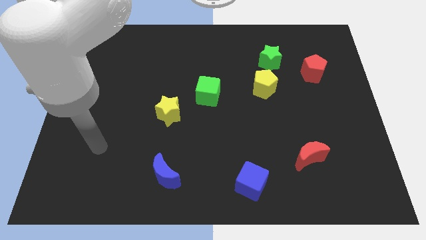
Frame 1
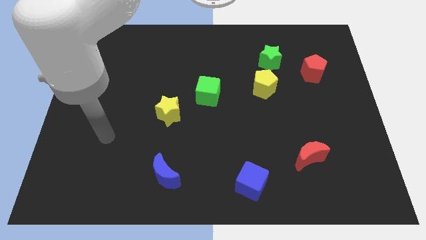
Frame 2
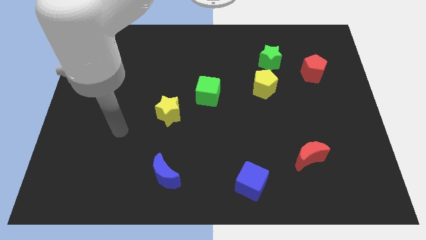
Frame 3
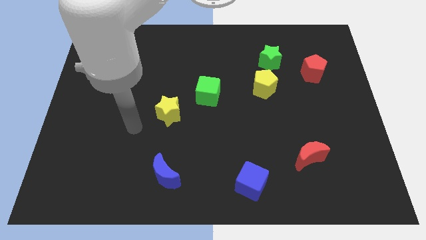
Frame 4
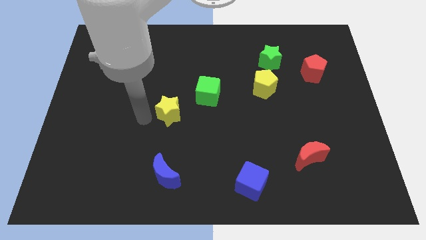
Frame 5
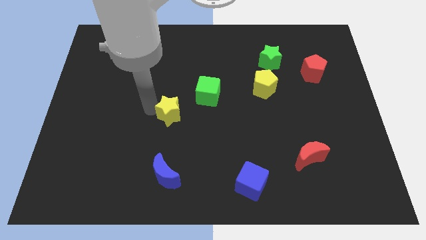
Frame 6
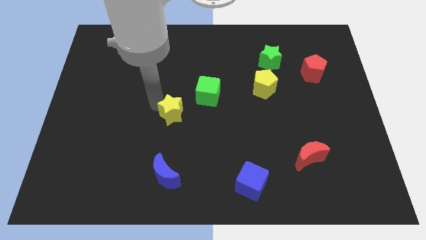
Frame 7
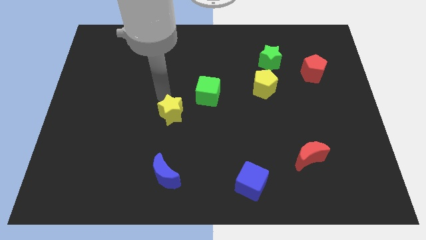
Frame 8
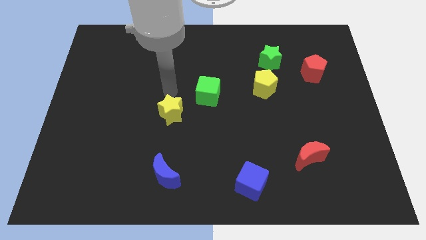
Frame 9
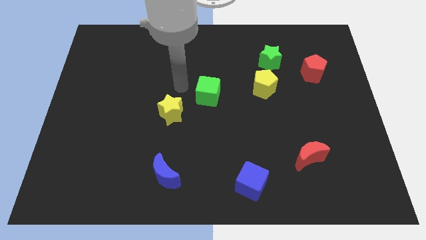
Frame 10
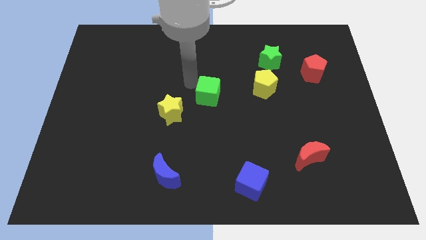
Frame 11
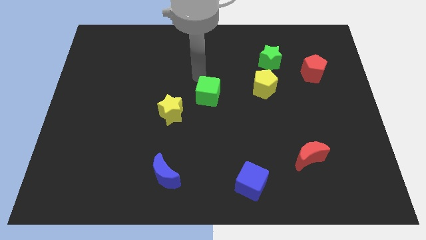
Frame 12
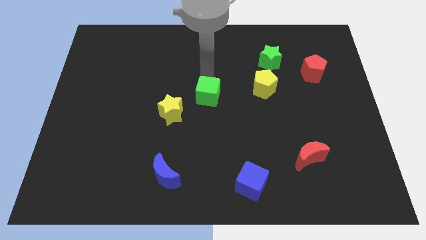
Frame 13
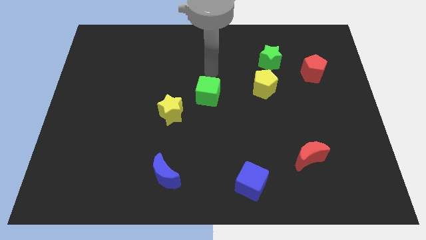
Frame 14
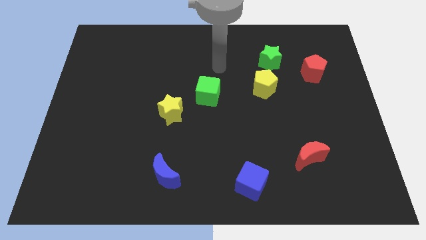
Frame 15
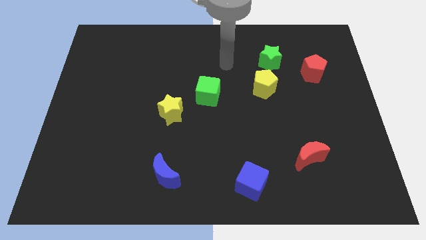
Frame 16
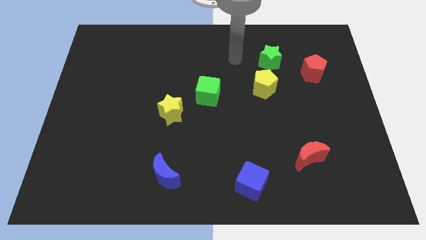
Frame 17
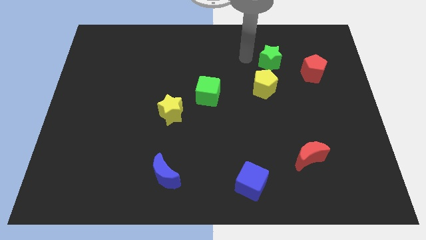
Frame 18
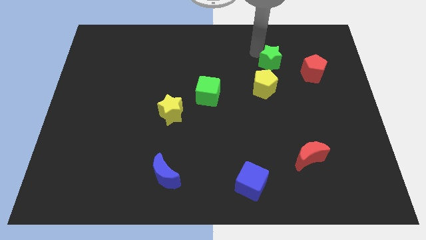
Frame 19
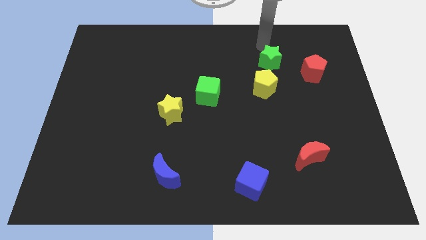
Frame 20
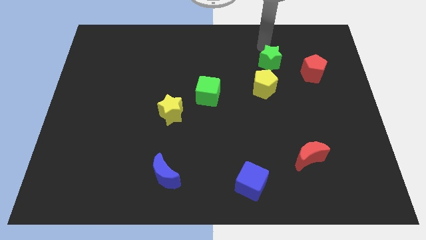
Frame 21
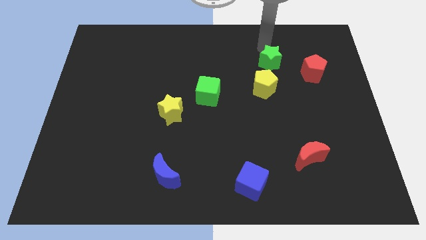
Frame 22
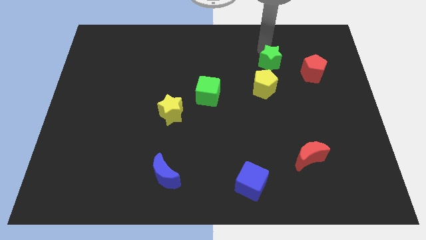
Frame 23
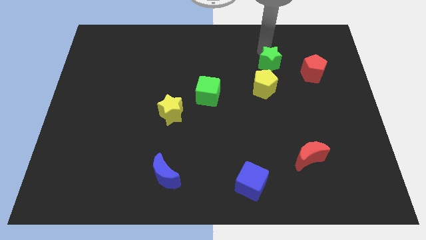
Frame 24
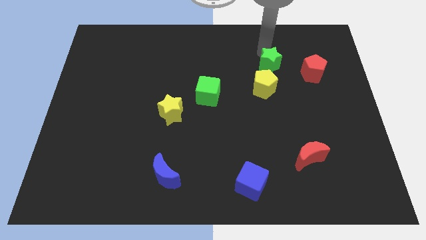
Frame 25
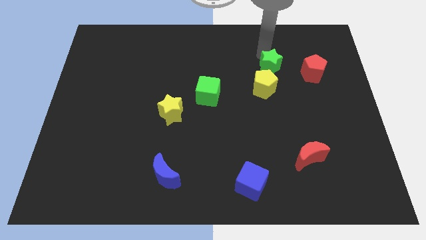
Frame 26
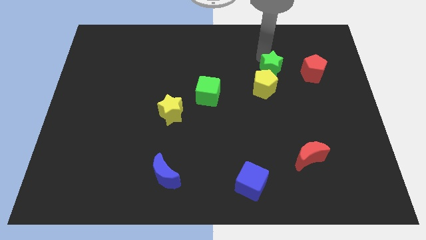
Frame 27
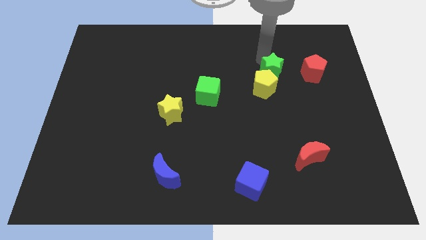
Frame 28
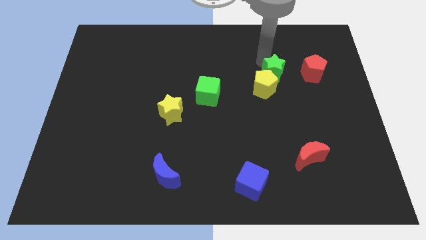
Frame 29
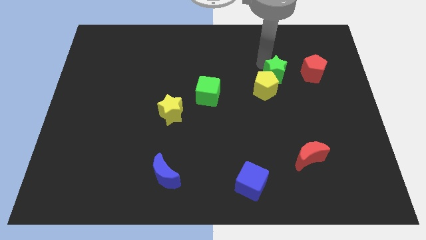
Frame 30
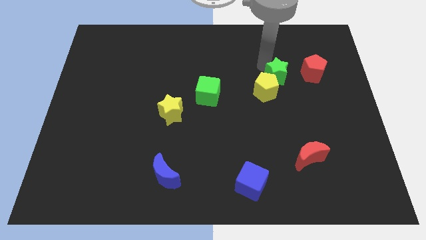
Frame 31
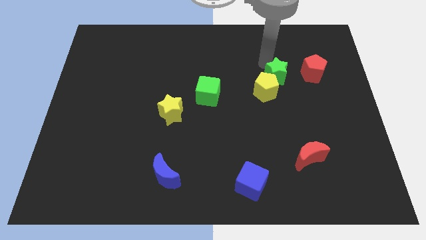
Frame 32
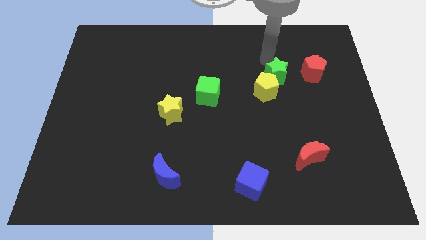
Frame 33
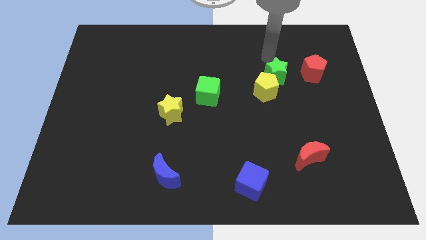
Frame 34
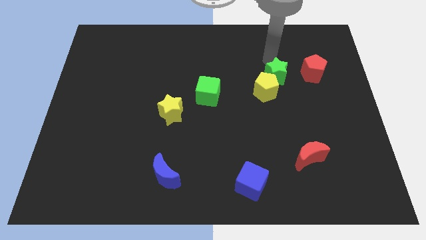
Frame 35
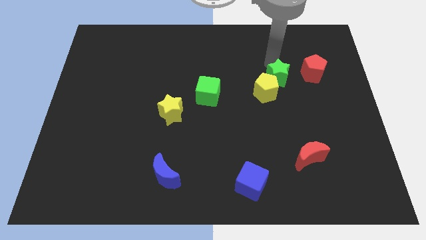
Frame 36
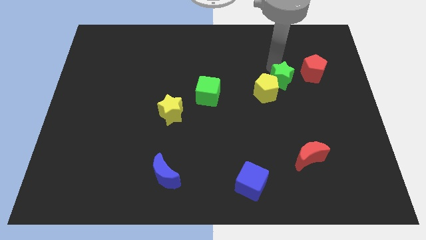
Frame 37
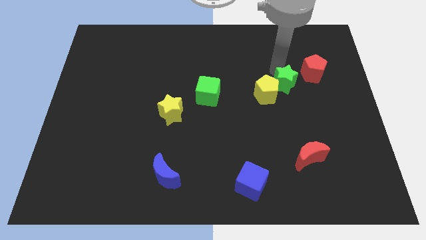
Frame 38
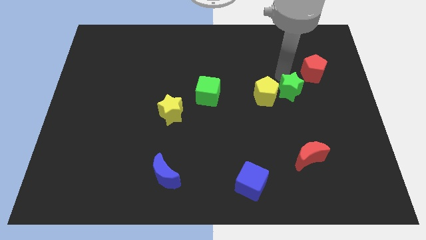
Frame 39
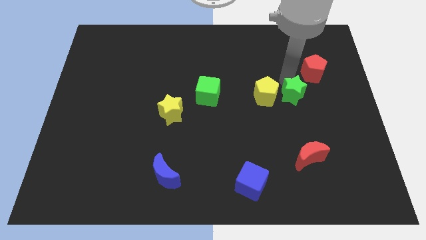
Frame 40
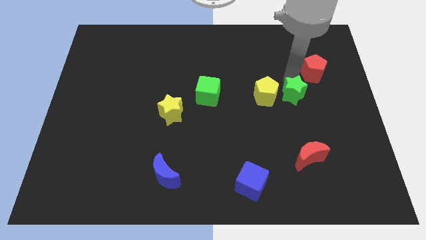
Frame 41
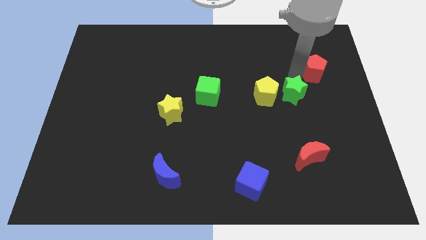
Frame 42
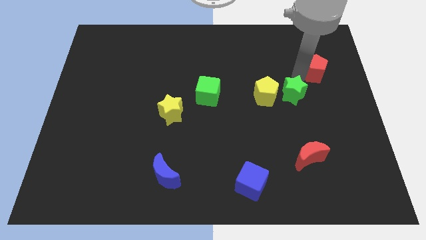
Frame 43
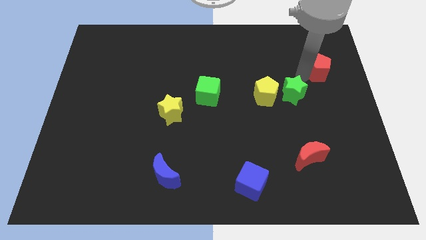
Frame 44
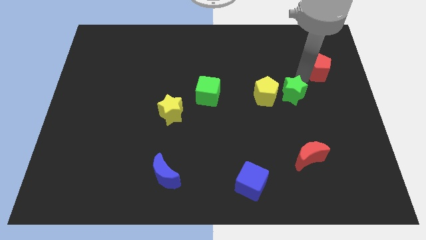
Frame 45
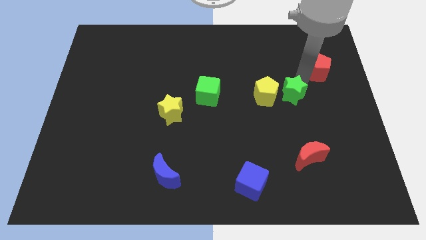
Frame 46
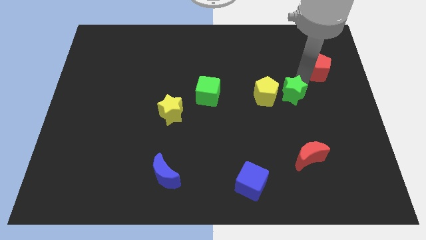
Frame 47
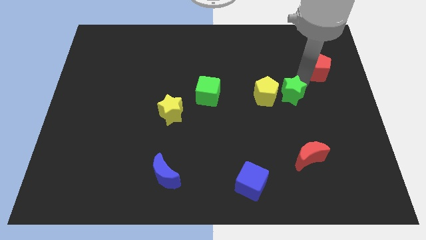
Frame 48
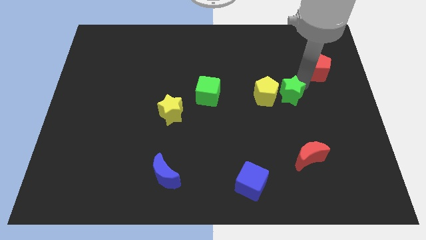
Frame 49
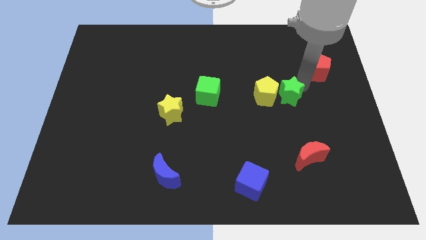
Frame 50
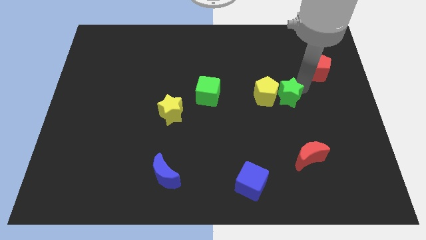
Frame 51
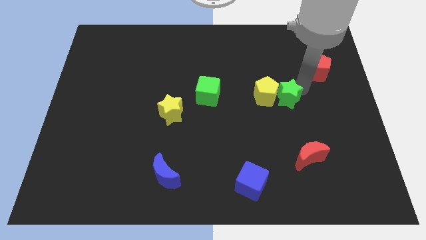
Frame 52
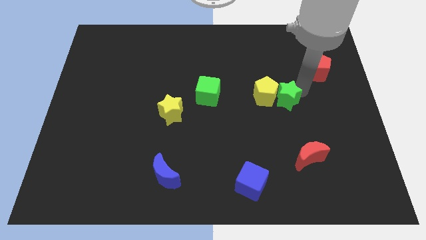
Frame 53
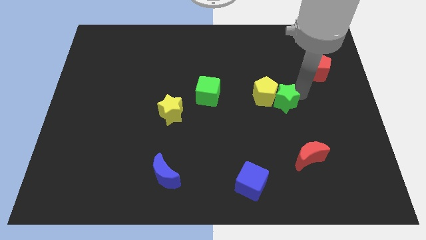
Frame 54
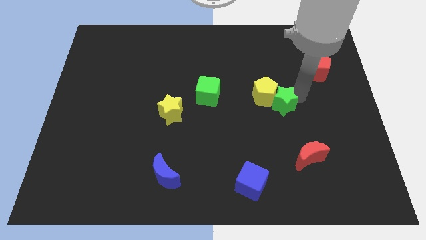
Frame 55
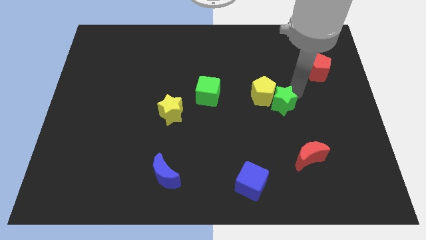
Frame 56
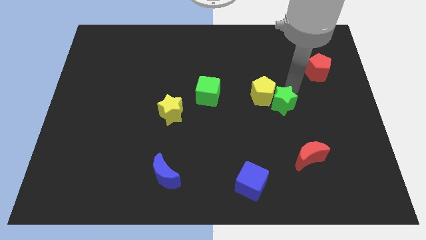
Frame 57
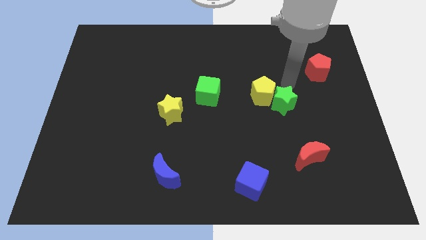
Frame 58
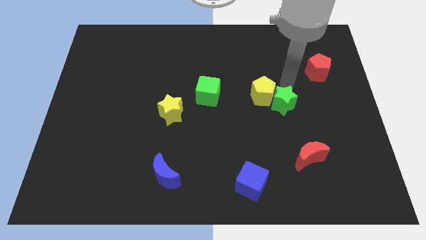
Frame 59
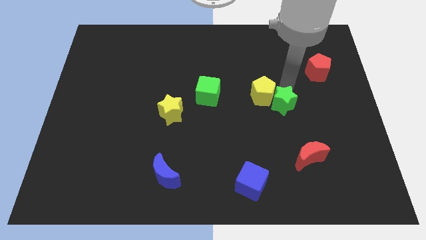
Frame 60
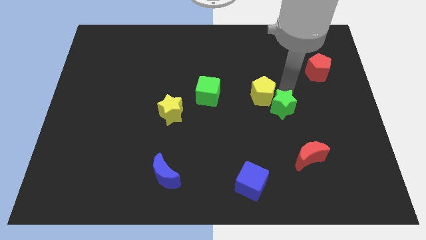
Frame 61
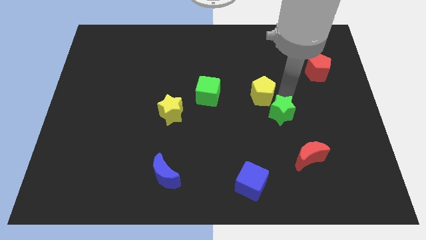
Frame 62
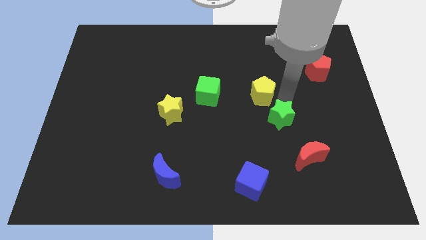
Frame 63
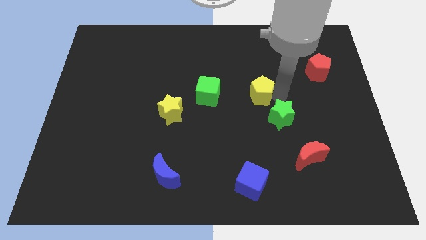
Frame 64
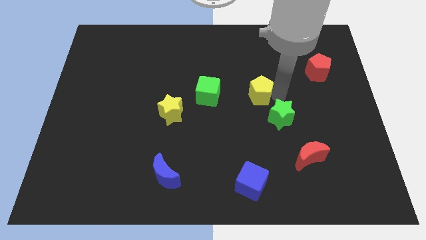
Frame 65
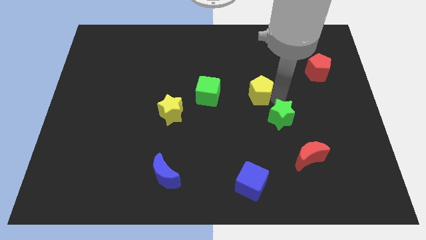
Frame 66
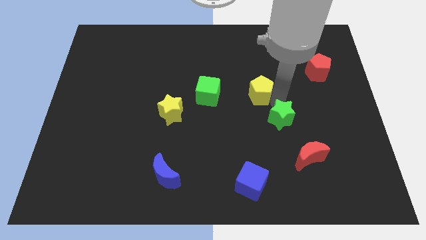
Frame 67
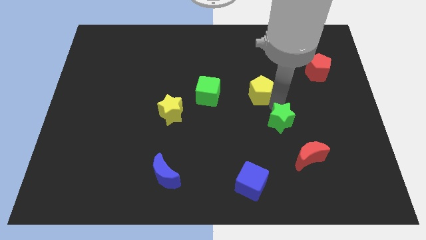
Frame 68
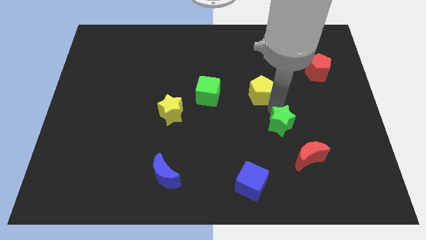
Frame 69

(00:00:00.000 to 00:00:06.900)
push the green star downwards

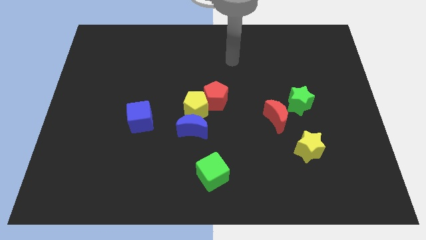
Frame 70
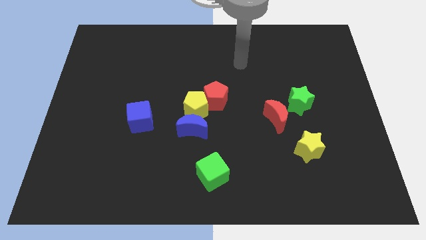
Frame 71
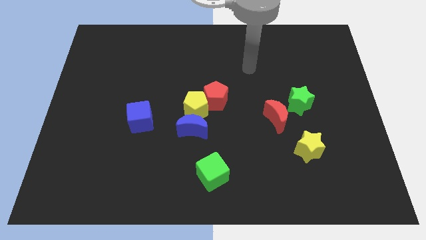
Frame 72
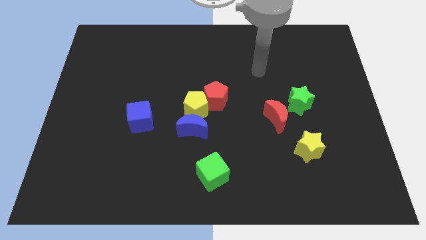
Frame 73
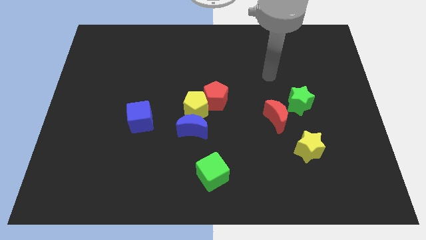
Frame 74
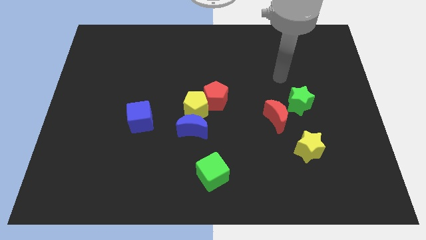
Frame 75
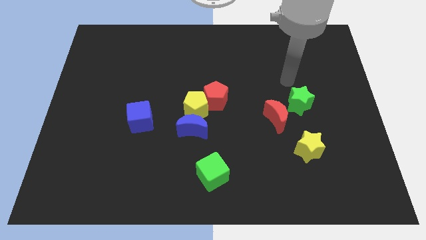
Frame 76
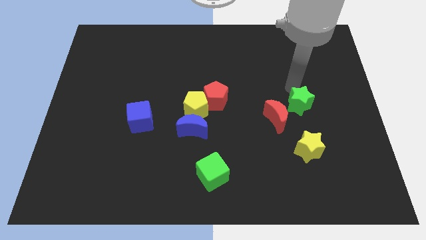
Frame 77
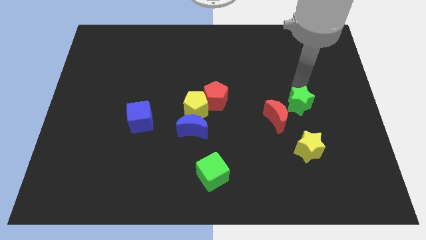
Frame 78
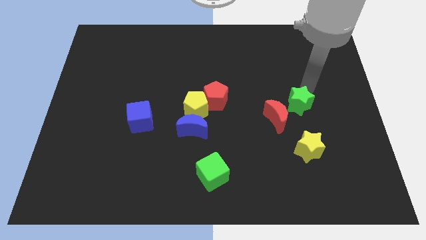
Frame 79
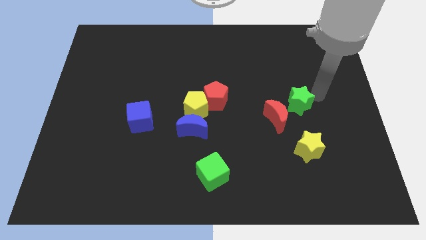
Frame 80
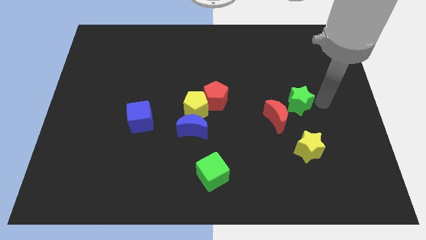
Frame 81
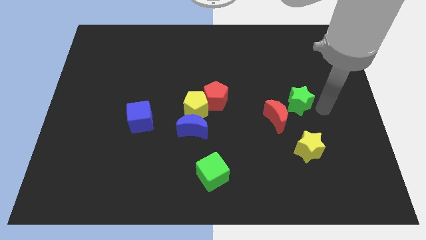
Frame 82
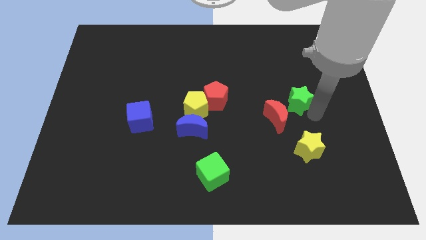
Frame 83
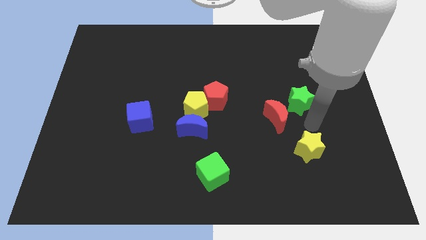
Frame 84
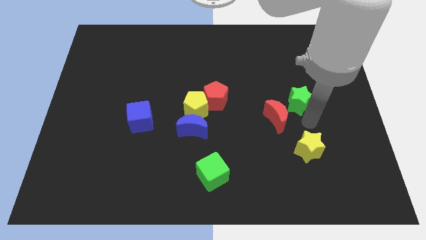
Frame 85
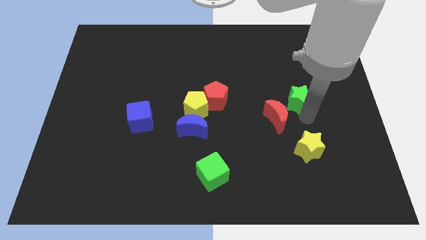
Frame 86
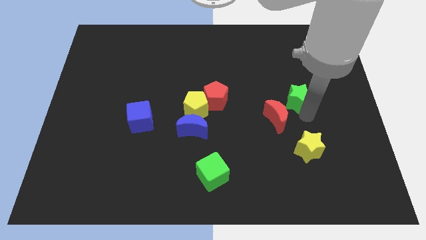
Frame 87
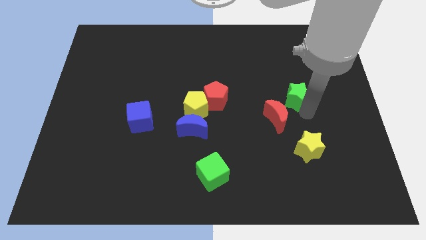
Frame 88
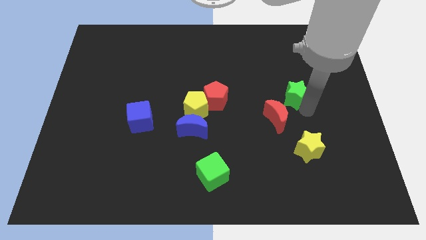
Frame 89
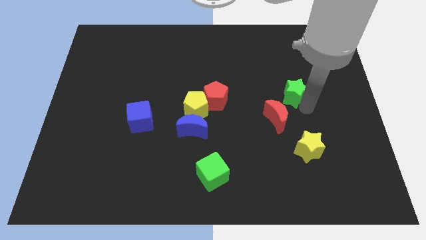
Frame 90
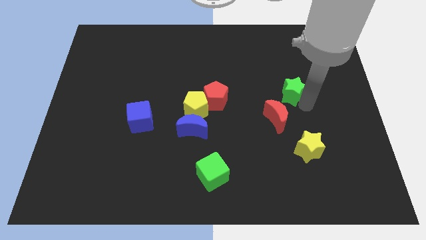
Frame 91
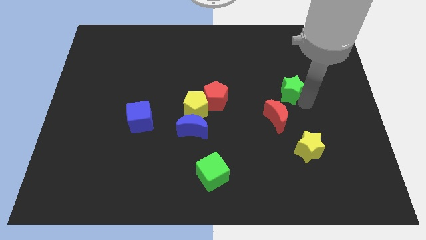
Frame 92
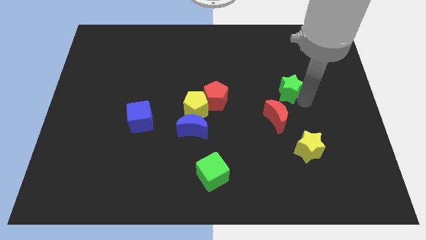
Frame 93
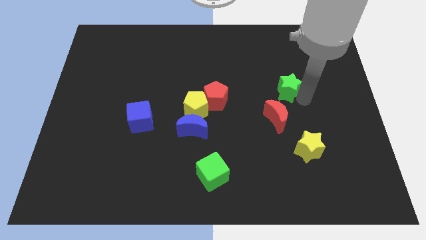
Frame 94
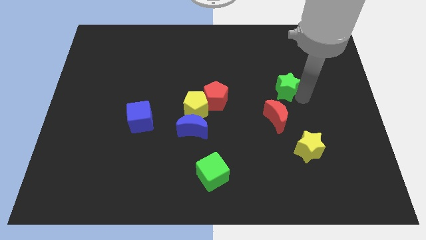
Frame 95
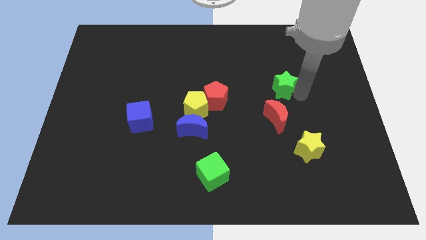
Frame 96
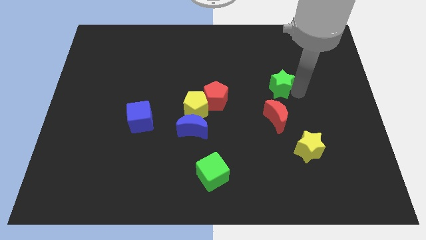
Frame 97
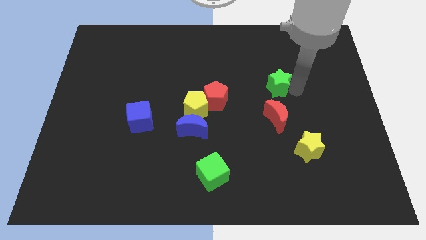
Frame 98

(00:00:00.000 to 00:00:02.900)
slide the green star upwards and then left a little
